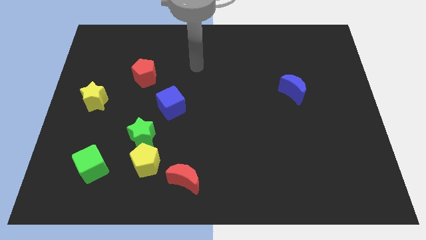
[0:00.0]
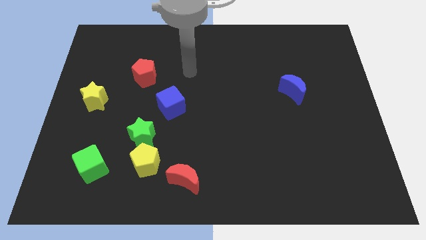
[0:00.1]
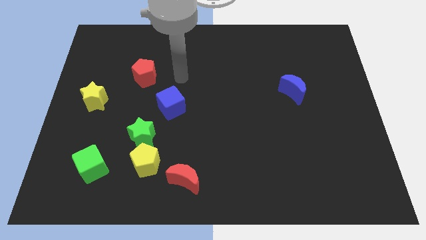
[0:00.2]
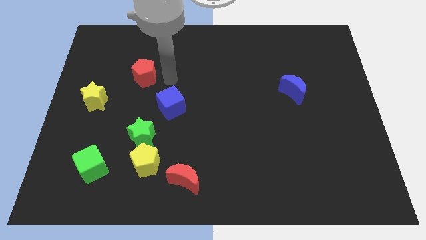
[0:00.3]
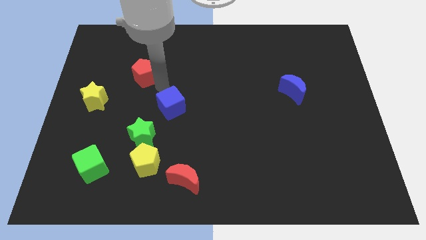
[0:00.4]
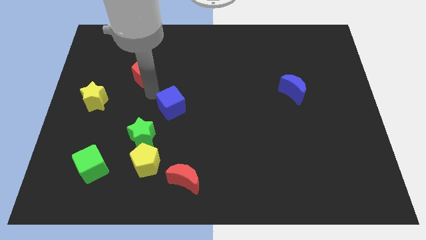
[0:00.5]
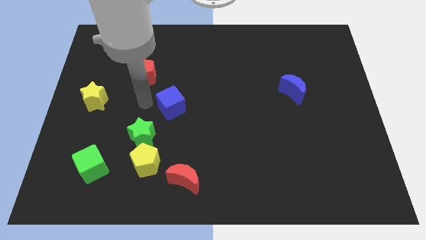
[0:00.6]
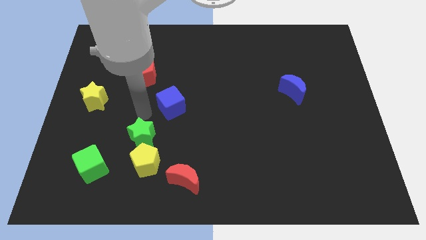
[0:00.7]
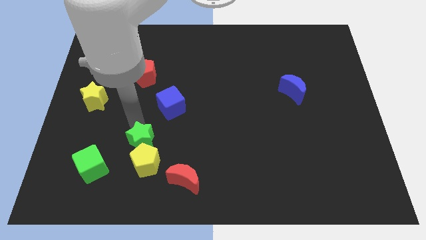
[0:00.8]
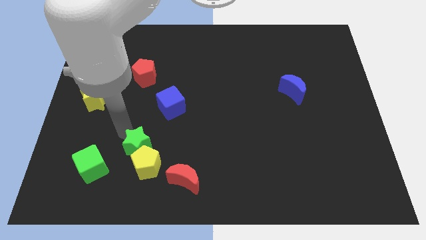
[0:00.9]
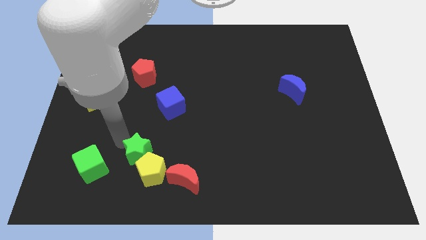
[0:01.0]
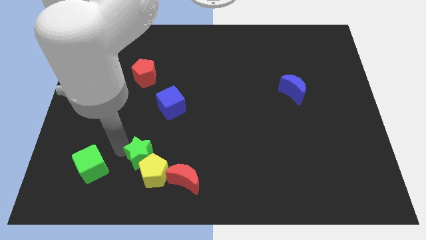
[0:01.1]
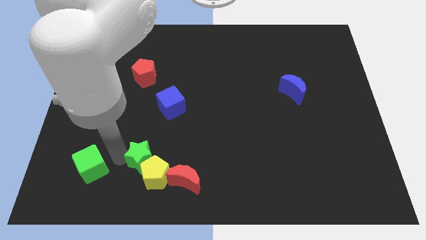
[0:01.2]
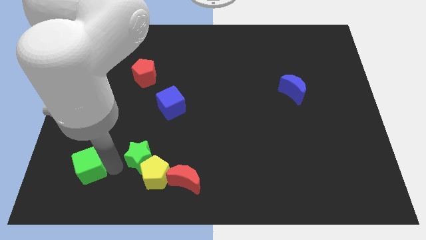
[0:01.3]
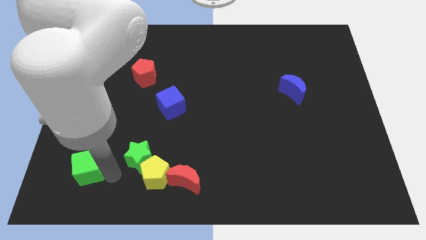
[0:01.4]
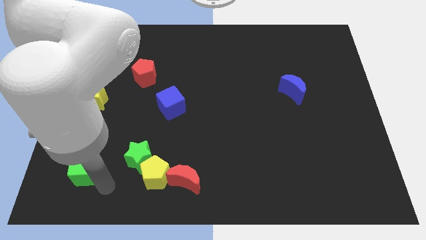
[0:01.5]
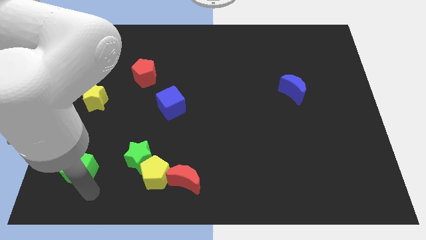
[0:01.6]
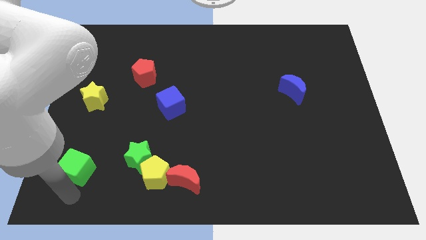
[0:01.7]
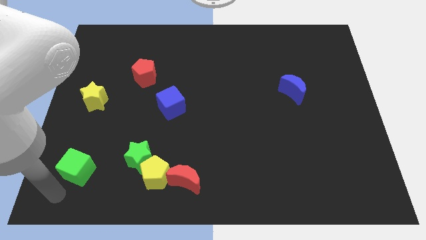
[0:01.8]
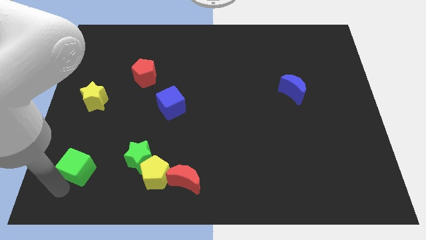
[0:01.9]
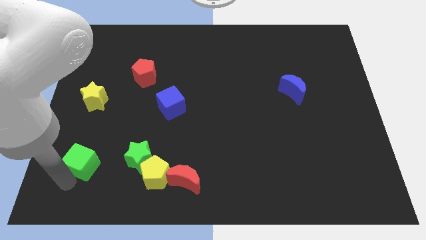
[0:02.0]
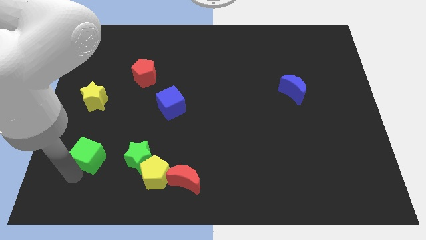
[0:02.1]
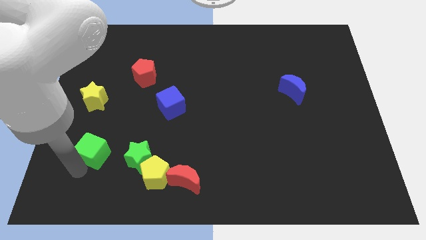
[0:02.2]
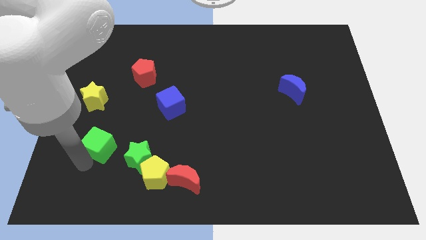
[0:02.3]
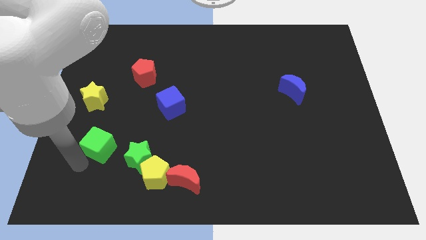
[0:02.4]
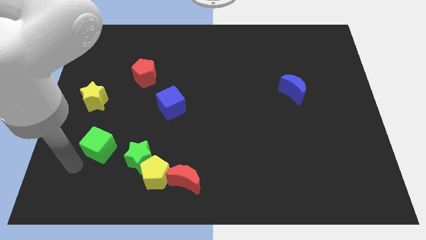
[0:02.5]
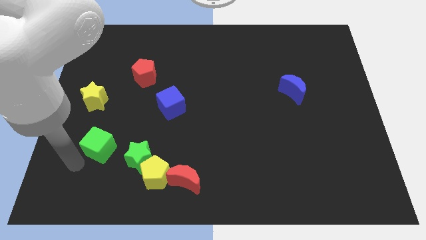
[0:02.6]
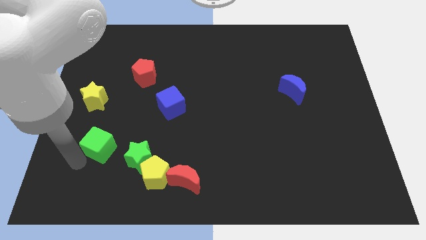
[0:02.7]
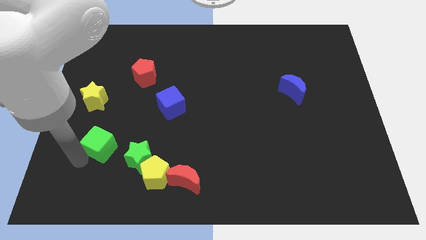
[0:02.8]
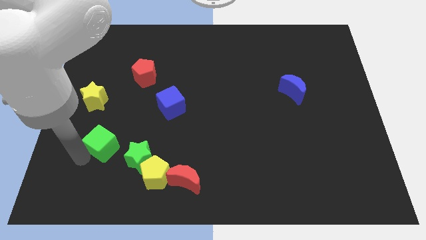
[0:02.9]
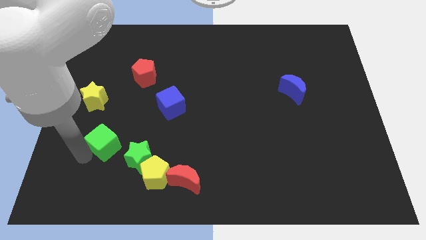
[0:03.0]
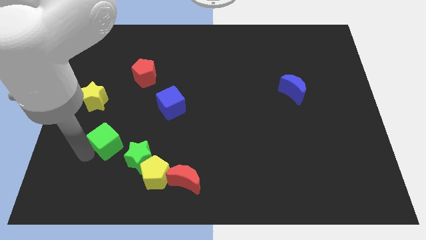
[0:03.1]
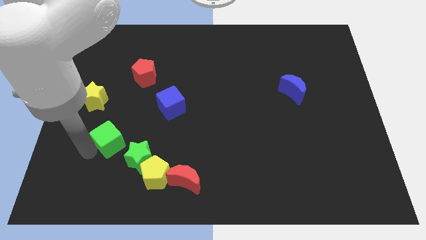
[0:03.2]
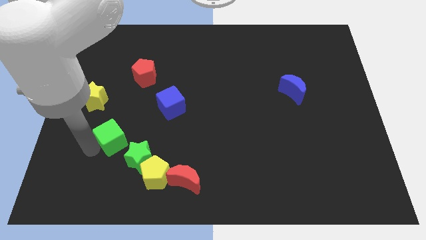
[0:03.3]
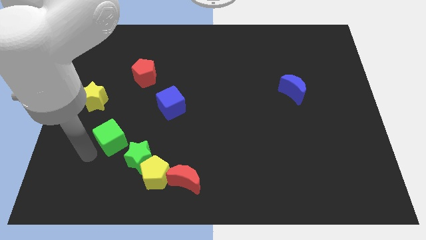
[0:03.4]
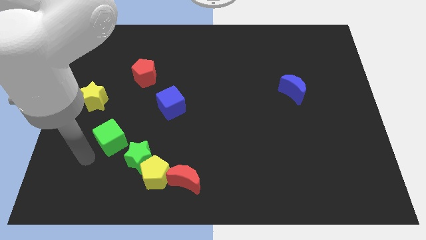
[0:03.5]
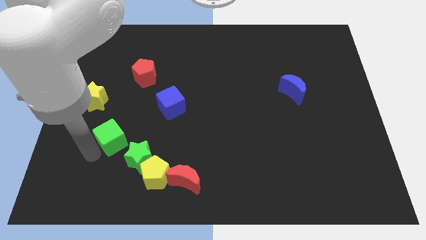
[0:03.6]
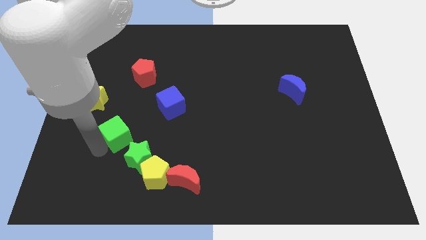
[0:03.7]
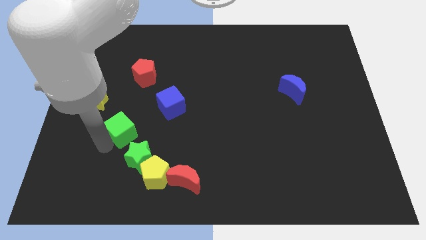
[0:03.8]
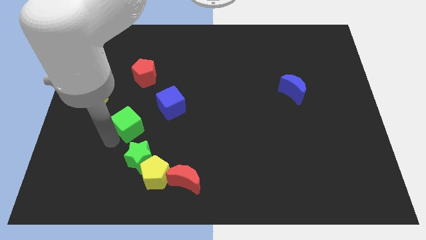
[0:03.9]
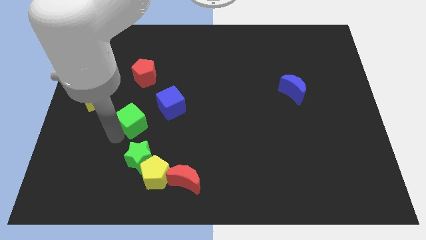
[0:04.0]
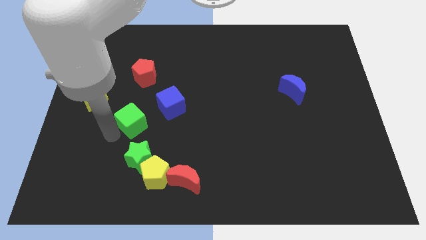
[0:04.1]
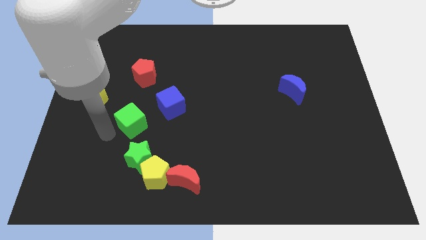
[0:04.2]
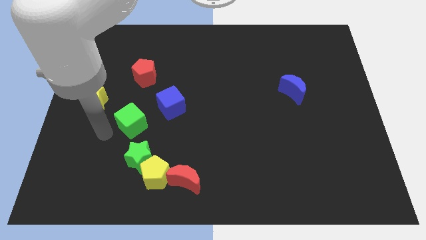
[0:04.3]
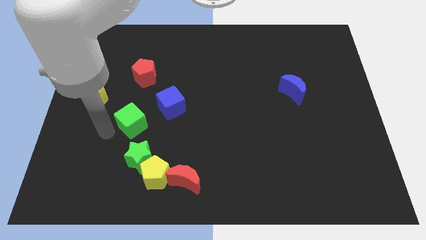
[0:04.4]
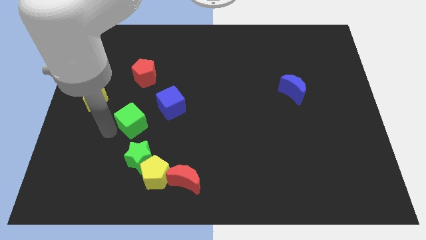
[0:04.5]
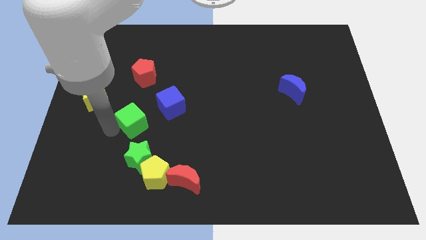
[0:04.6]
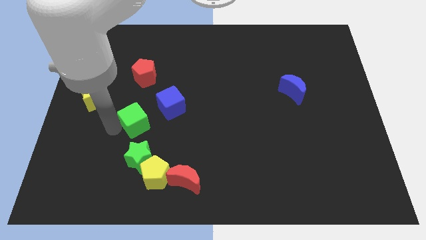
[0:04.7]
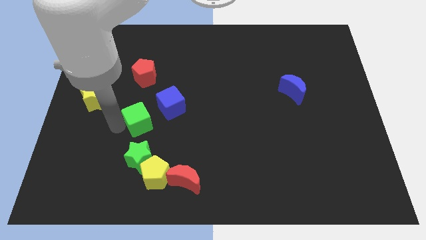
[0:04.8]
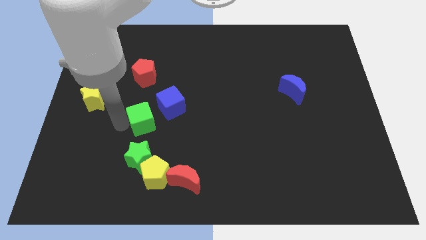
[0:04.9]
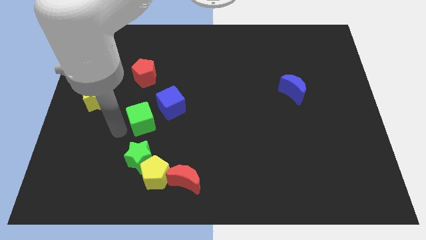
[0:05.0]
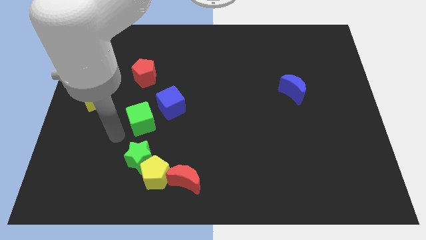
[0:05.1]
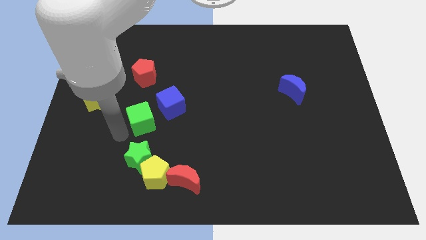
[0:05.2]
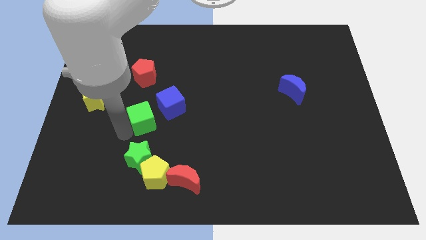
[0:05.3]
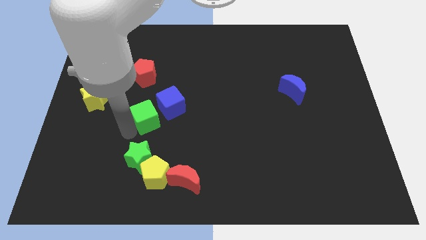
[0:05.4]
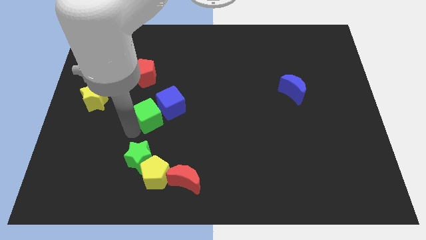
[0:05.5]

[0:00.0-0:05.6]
move the green cube next to the blue cube

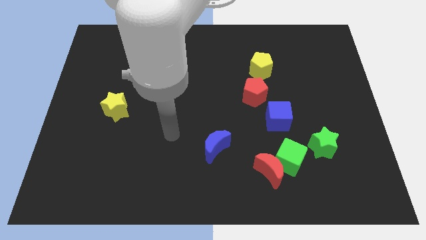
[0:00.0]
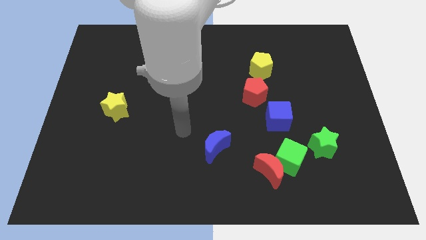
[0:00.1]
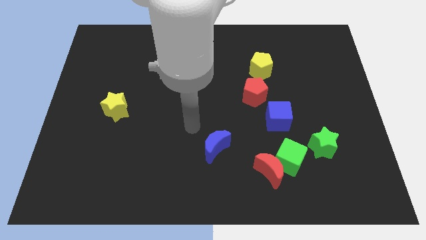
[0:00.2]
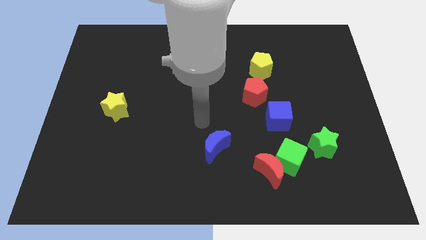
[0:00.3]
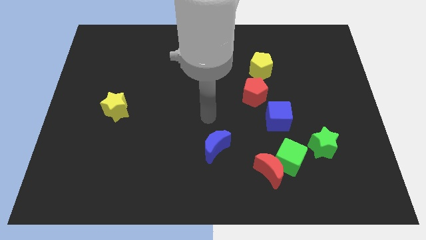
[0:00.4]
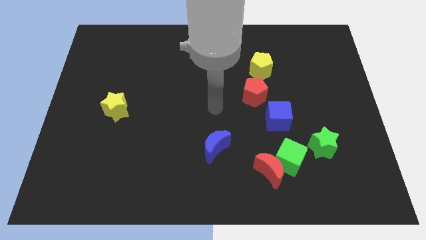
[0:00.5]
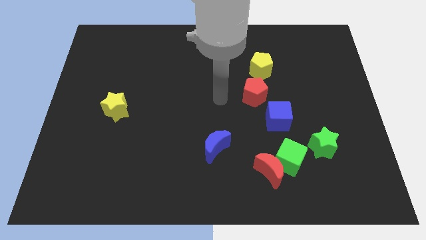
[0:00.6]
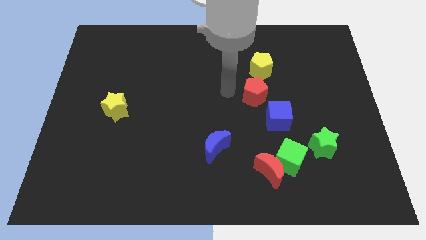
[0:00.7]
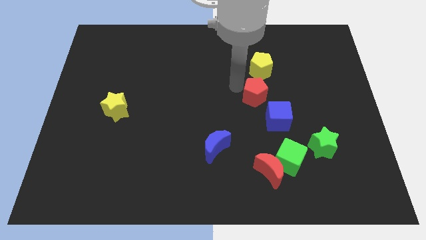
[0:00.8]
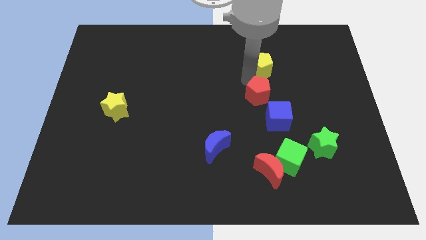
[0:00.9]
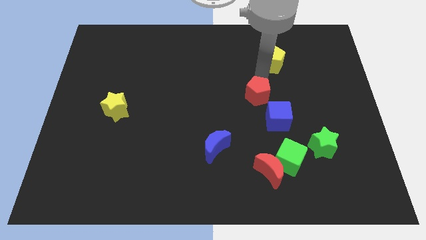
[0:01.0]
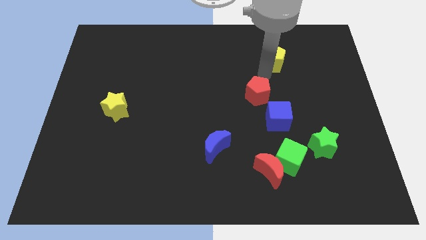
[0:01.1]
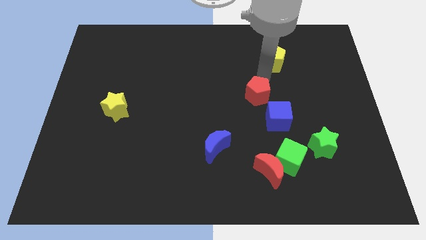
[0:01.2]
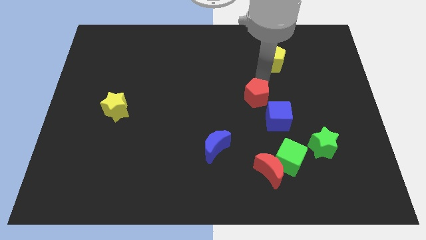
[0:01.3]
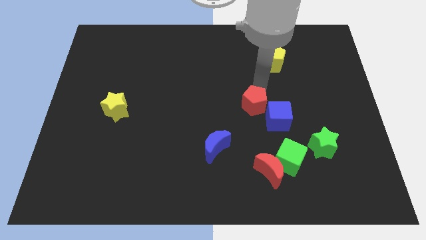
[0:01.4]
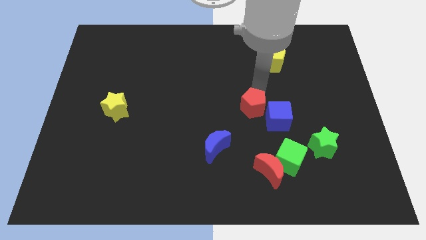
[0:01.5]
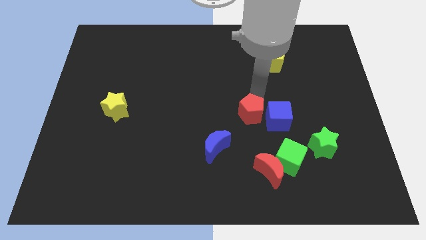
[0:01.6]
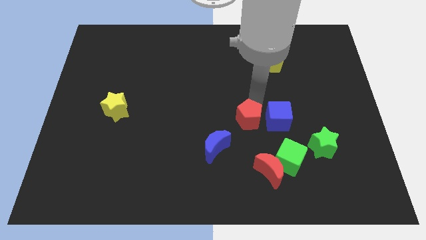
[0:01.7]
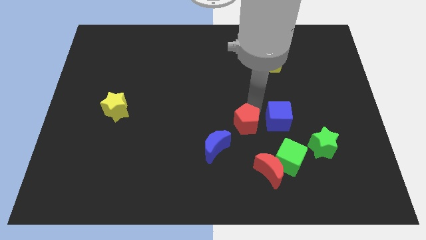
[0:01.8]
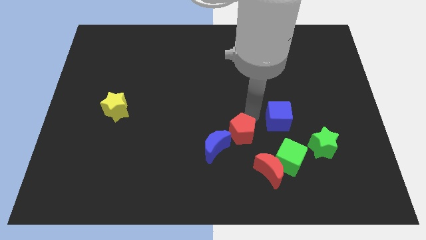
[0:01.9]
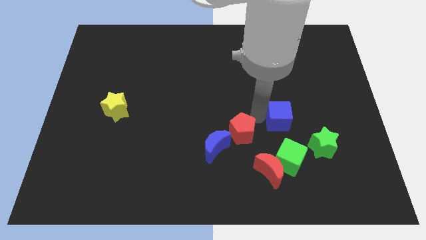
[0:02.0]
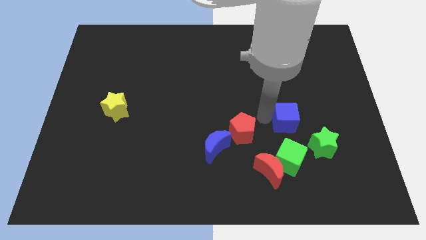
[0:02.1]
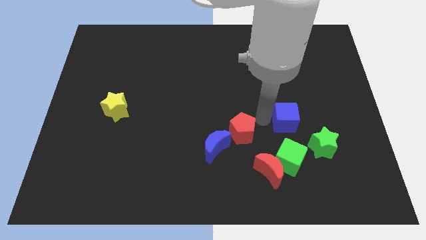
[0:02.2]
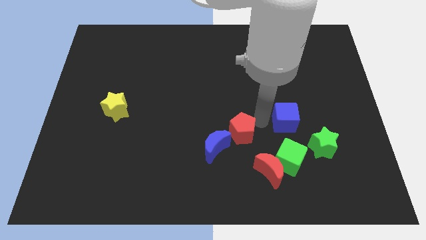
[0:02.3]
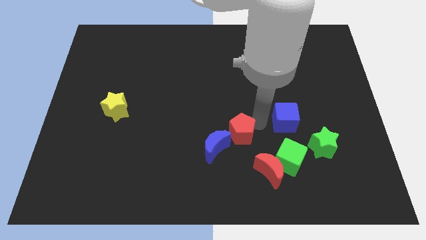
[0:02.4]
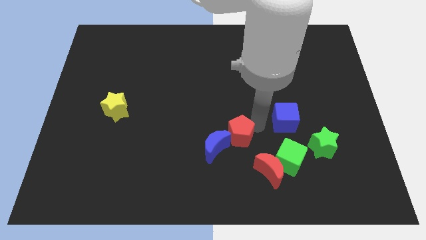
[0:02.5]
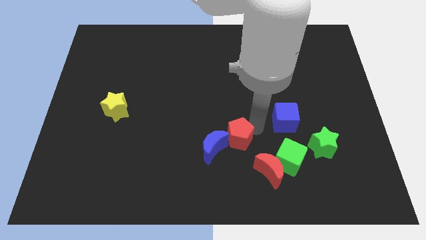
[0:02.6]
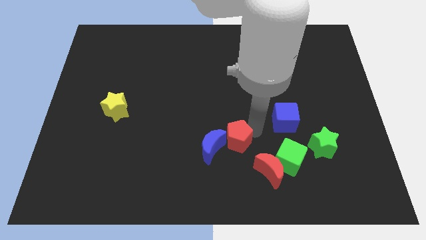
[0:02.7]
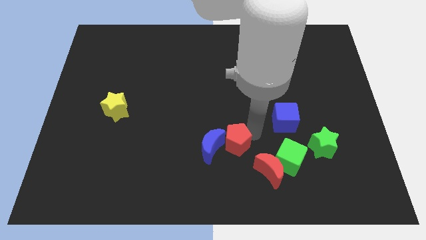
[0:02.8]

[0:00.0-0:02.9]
push the red pentagon next to the blue moon
